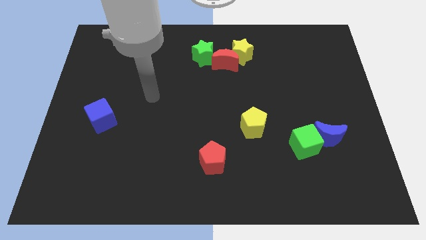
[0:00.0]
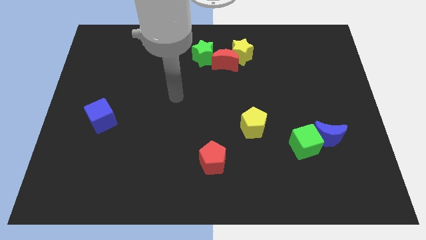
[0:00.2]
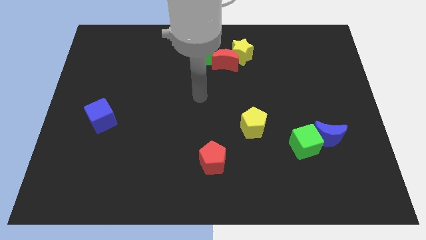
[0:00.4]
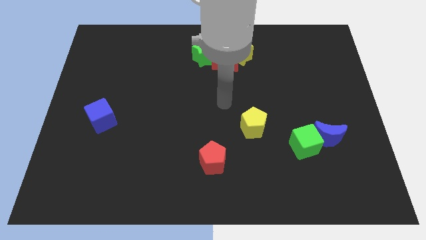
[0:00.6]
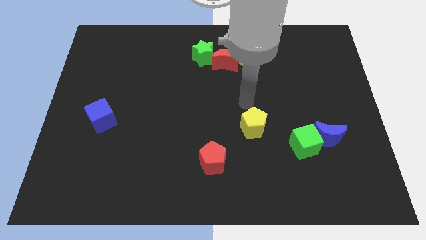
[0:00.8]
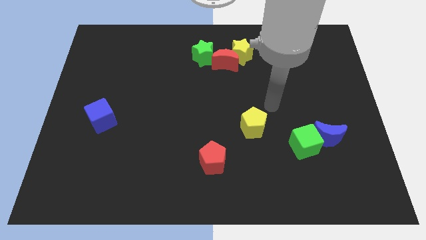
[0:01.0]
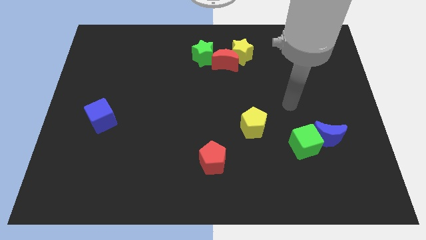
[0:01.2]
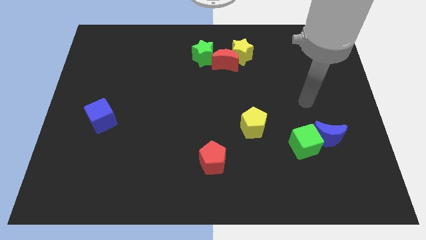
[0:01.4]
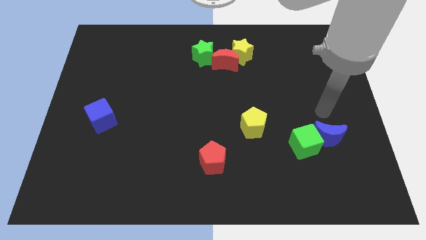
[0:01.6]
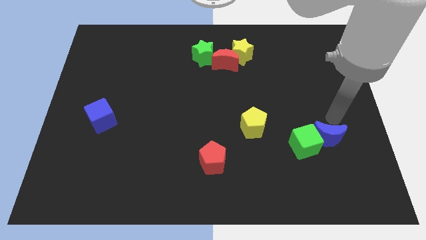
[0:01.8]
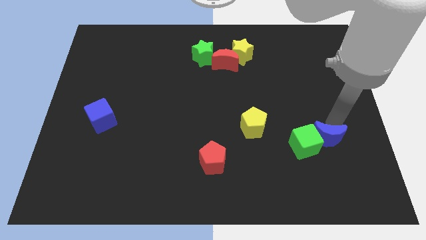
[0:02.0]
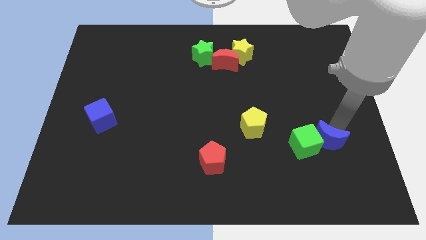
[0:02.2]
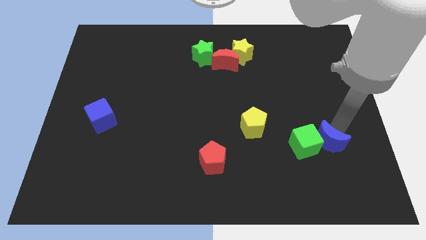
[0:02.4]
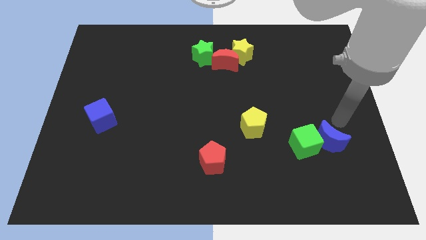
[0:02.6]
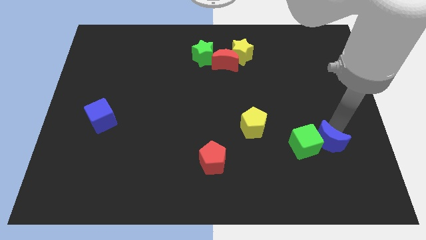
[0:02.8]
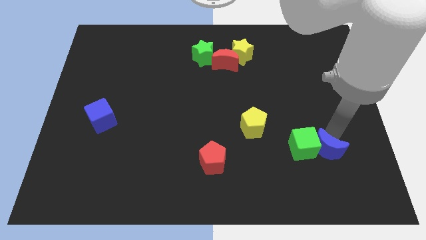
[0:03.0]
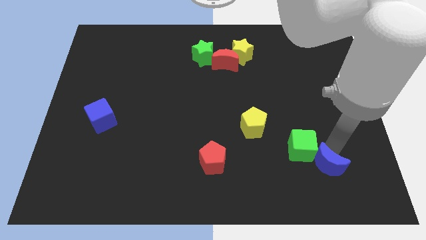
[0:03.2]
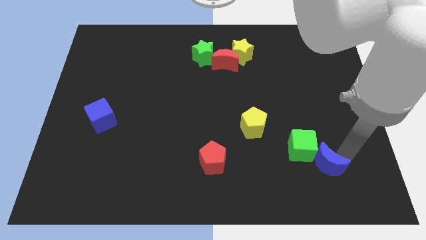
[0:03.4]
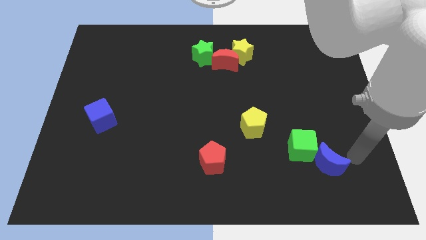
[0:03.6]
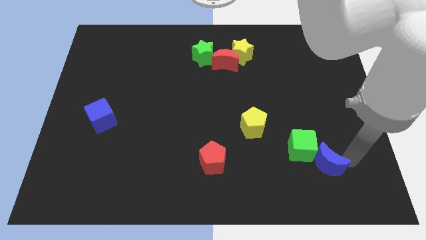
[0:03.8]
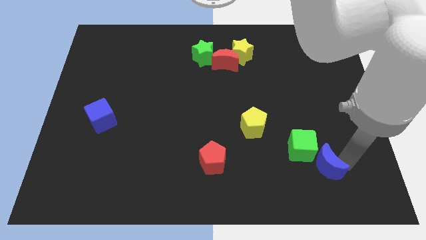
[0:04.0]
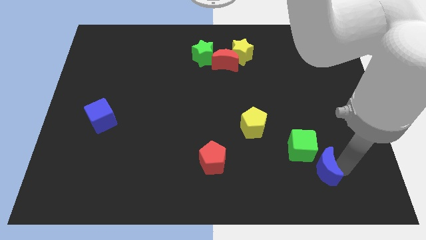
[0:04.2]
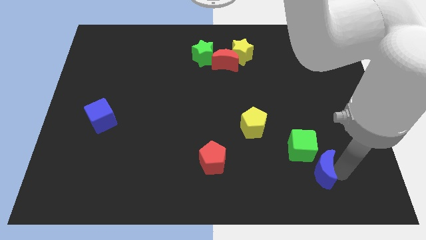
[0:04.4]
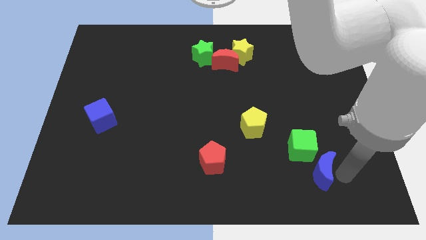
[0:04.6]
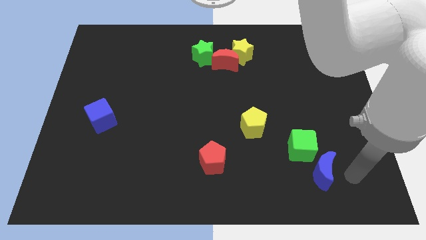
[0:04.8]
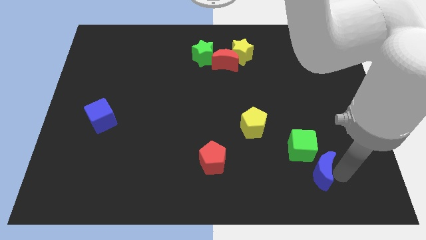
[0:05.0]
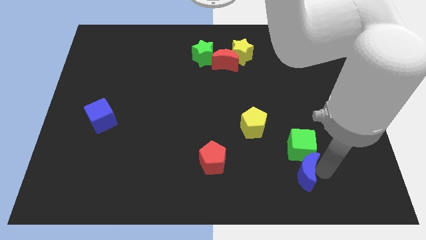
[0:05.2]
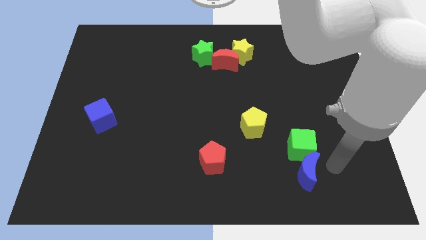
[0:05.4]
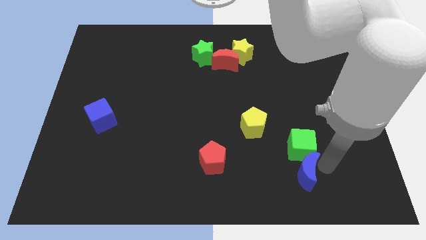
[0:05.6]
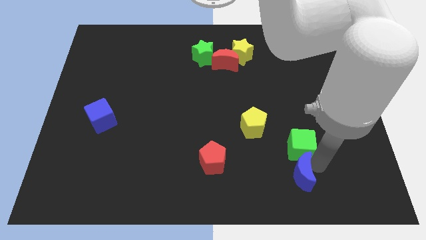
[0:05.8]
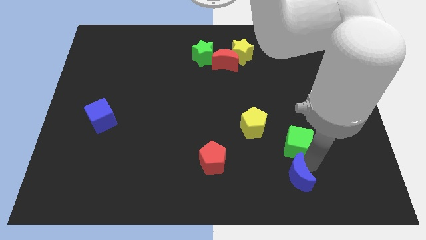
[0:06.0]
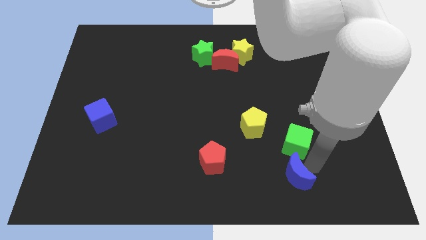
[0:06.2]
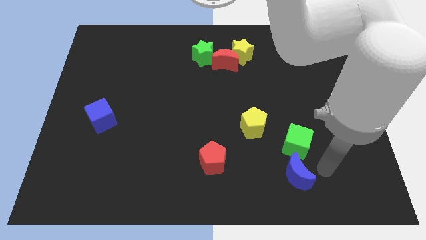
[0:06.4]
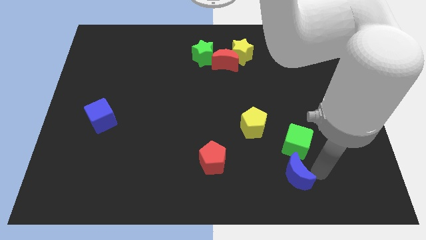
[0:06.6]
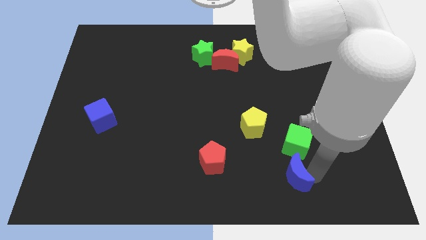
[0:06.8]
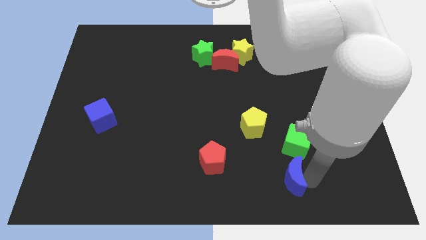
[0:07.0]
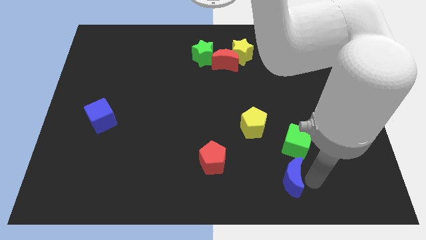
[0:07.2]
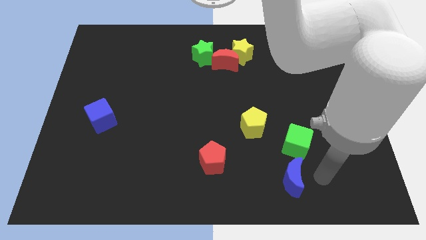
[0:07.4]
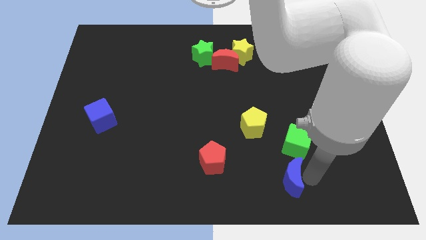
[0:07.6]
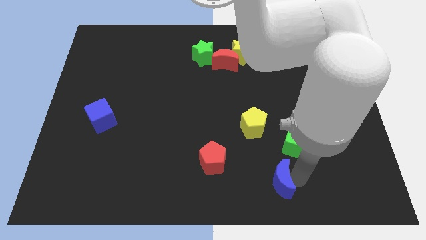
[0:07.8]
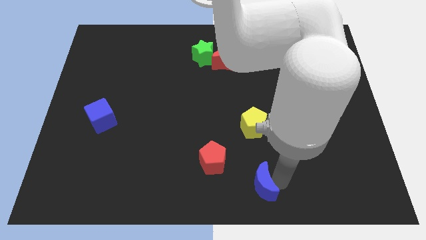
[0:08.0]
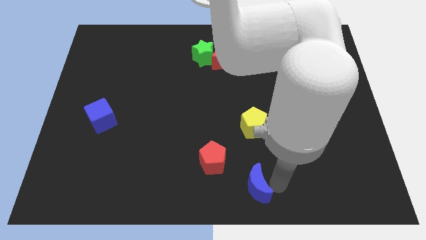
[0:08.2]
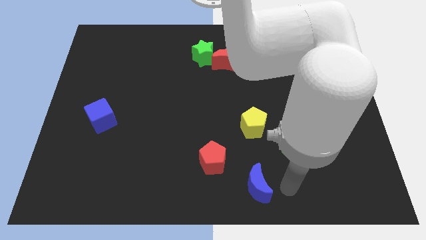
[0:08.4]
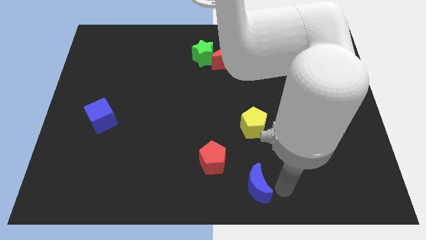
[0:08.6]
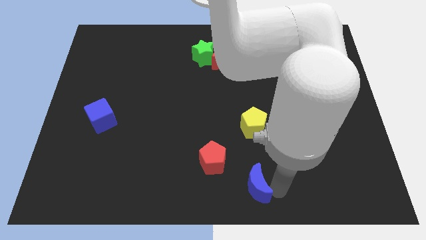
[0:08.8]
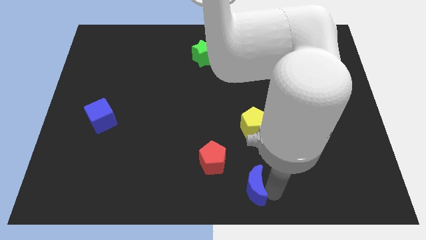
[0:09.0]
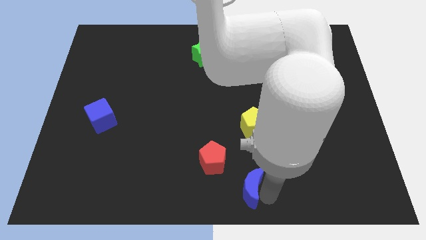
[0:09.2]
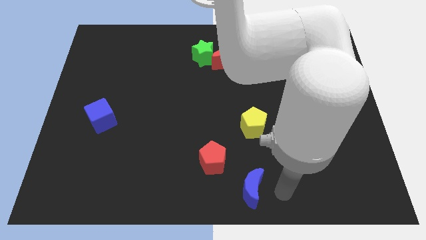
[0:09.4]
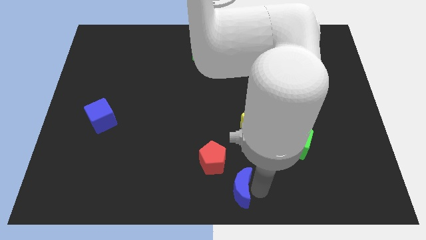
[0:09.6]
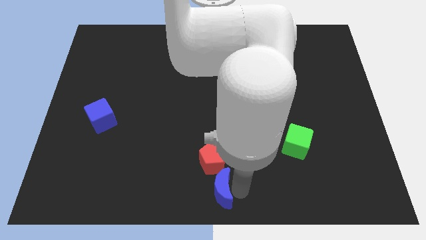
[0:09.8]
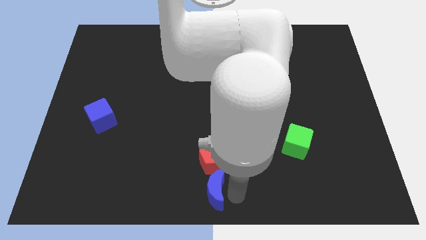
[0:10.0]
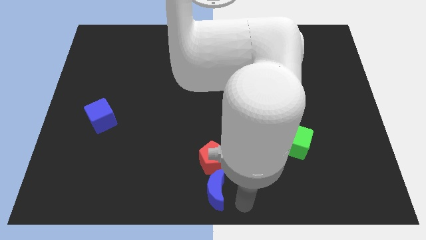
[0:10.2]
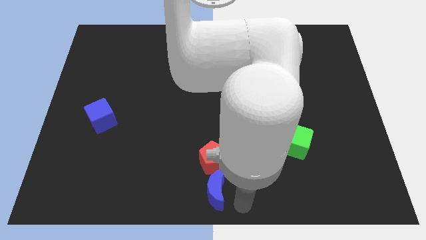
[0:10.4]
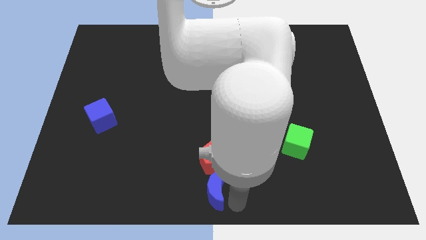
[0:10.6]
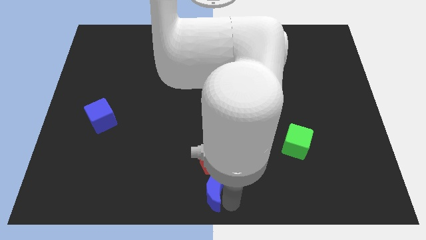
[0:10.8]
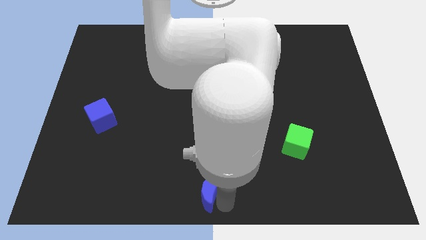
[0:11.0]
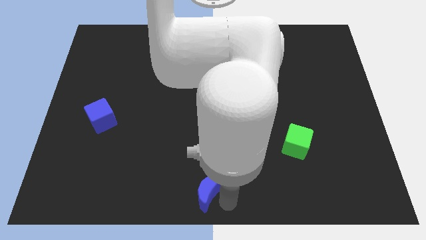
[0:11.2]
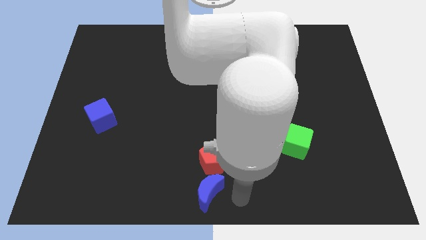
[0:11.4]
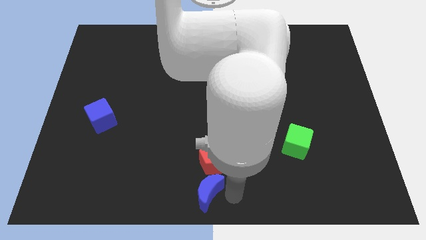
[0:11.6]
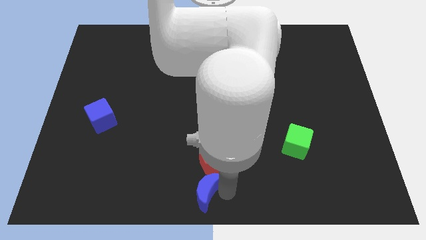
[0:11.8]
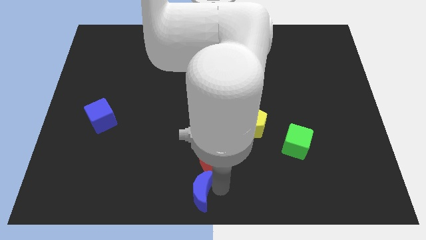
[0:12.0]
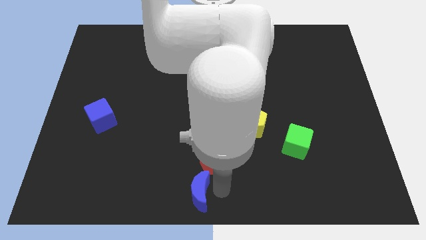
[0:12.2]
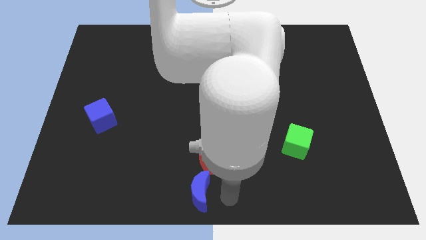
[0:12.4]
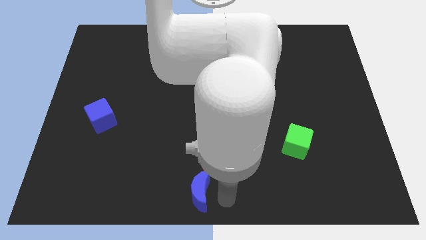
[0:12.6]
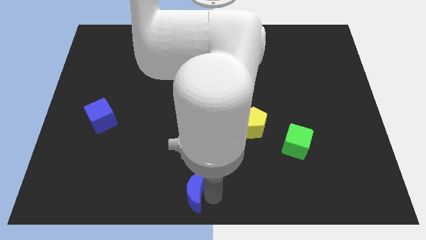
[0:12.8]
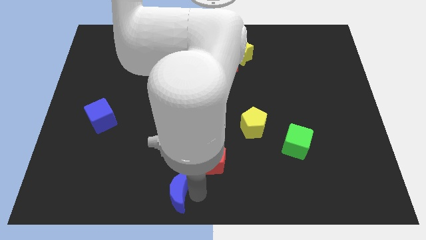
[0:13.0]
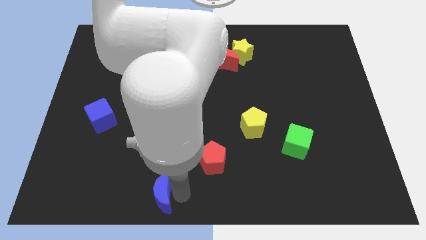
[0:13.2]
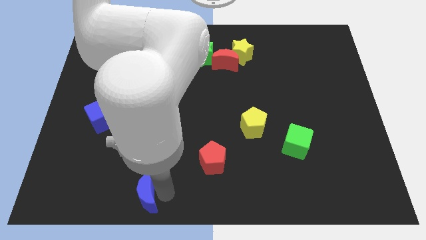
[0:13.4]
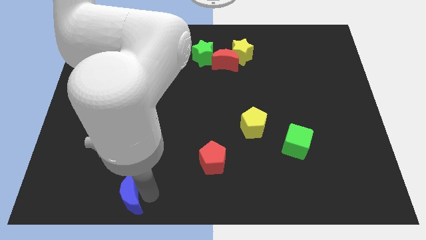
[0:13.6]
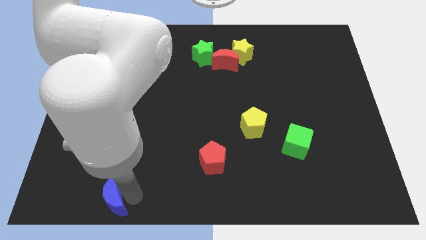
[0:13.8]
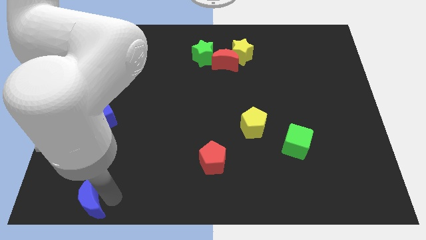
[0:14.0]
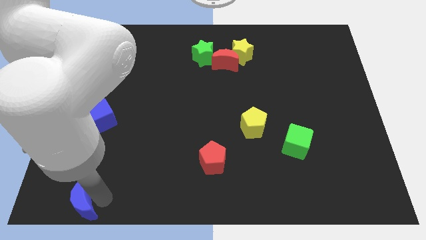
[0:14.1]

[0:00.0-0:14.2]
put the blue moon to the lower left corner

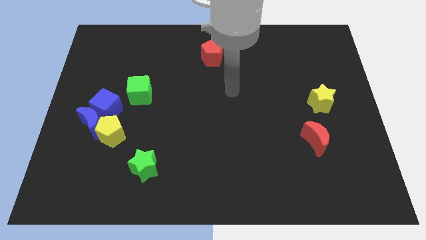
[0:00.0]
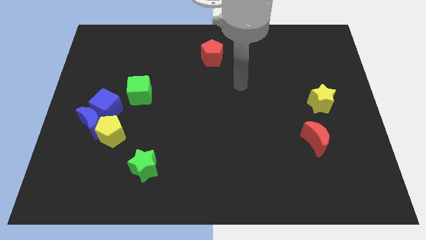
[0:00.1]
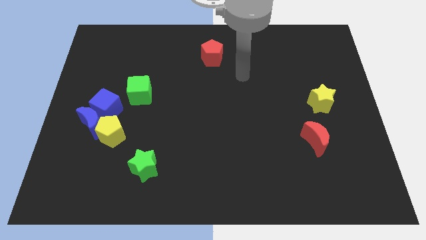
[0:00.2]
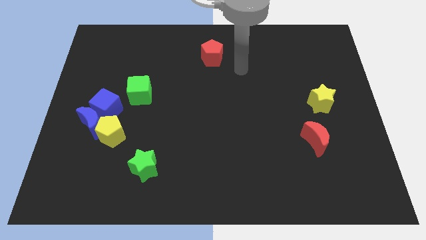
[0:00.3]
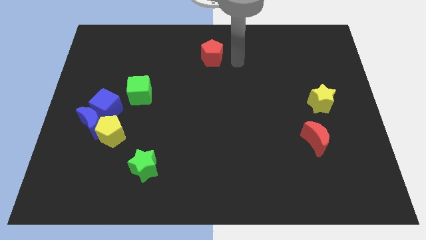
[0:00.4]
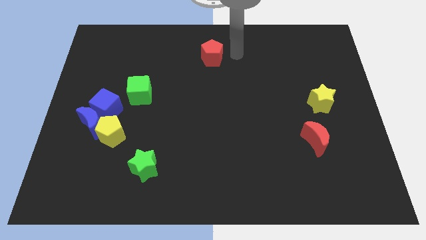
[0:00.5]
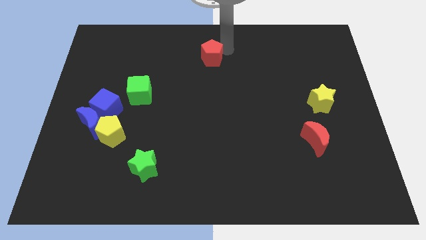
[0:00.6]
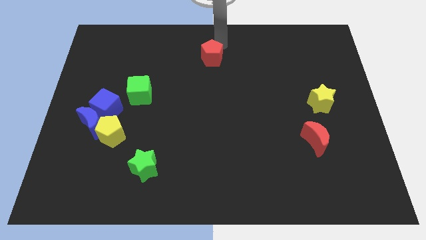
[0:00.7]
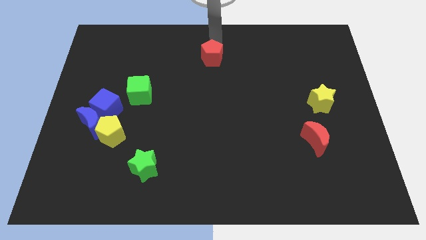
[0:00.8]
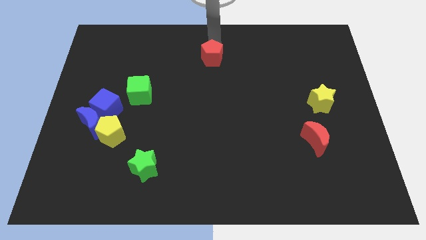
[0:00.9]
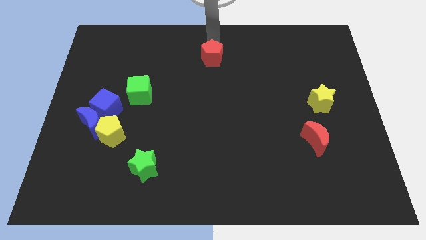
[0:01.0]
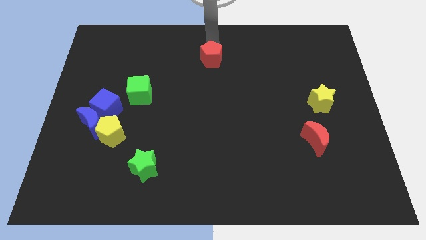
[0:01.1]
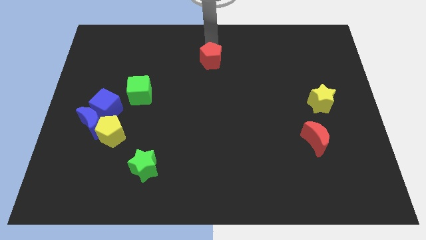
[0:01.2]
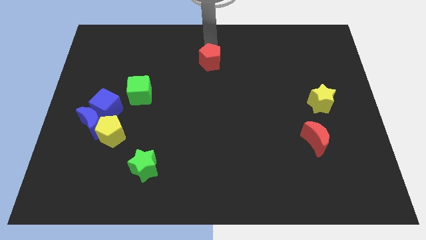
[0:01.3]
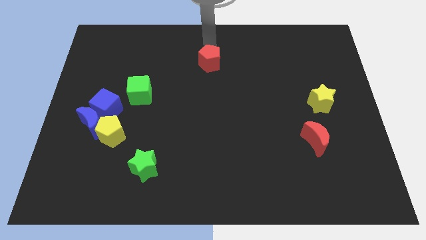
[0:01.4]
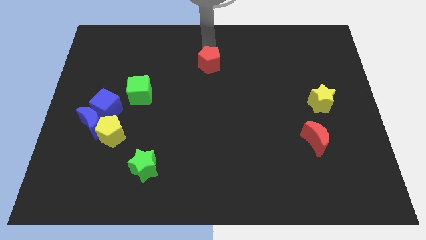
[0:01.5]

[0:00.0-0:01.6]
slide the red pentagon to the center of the board
